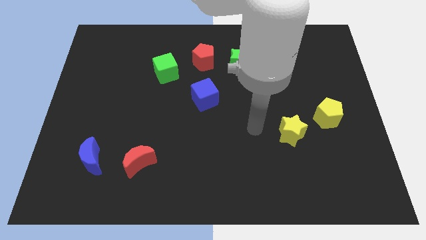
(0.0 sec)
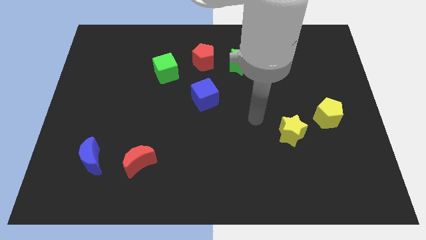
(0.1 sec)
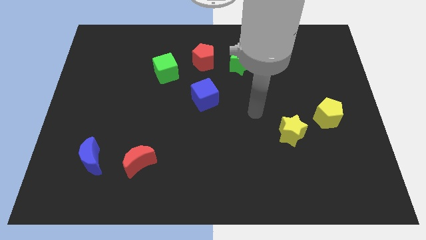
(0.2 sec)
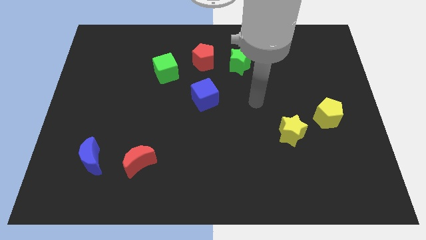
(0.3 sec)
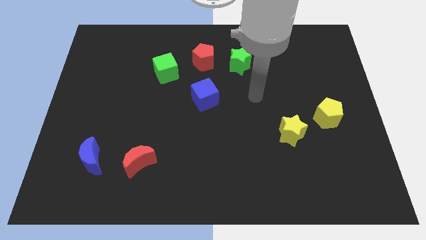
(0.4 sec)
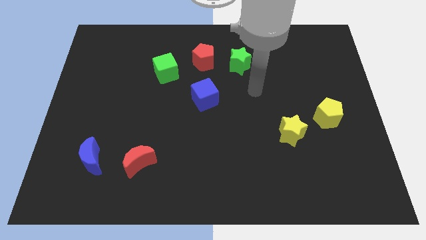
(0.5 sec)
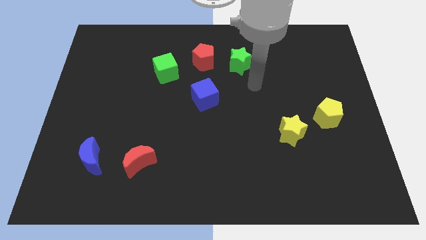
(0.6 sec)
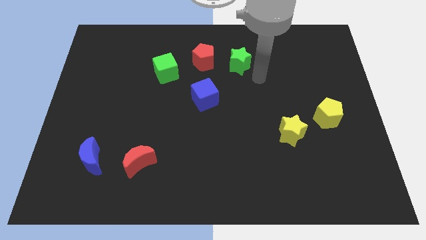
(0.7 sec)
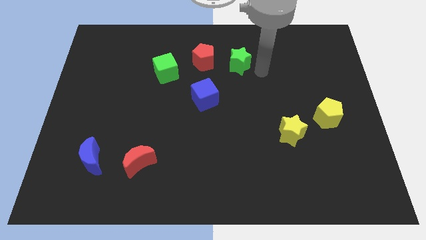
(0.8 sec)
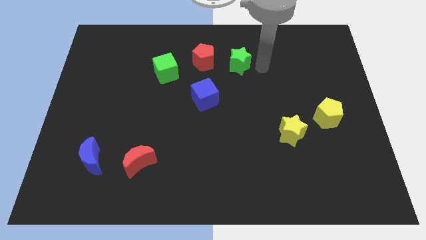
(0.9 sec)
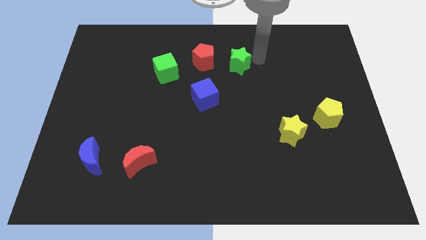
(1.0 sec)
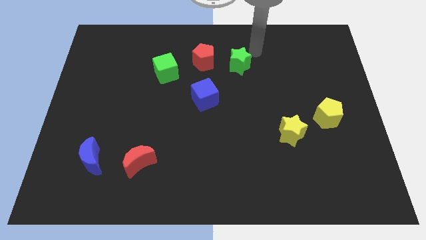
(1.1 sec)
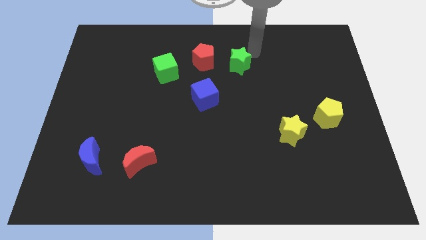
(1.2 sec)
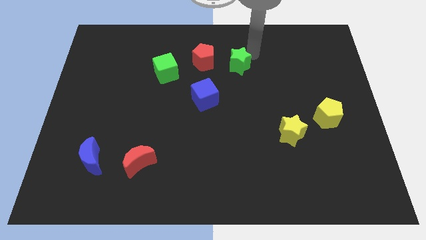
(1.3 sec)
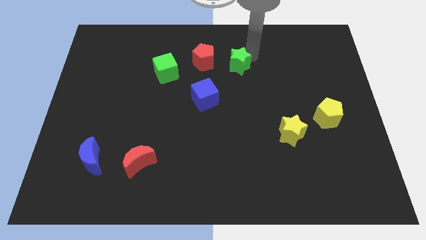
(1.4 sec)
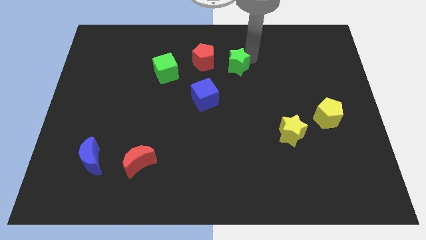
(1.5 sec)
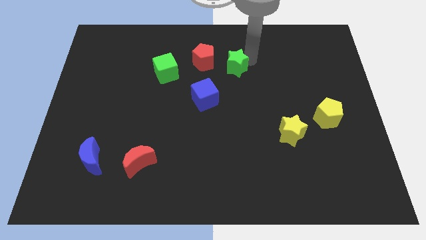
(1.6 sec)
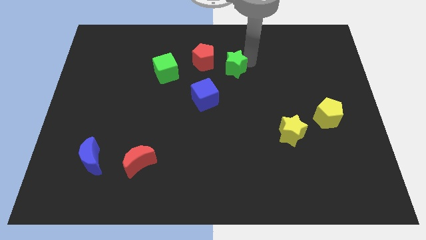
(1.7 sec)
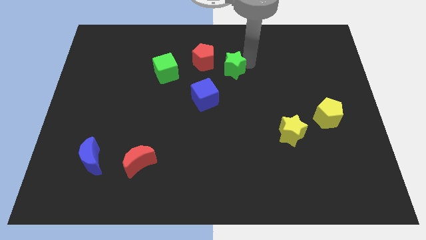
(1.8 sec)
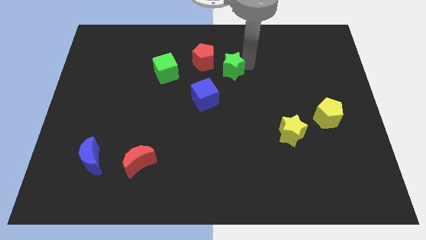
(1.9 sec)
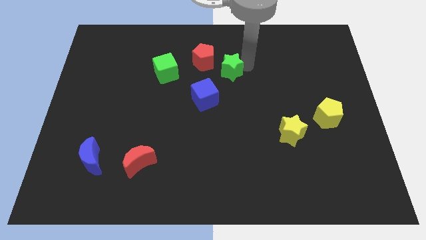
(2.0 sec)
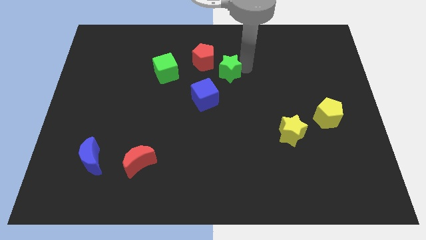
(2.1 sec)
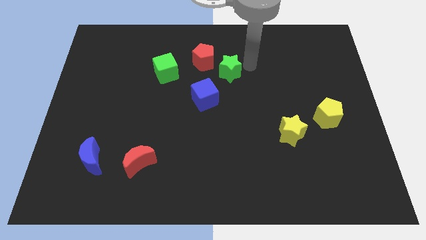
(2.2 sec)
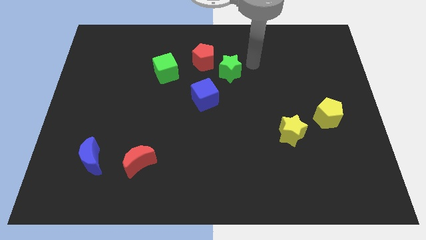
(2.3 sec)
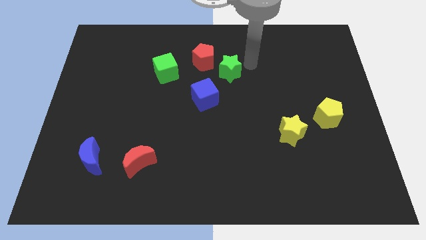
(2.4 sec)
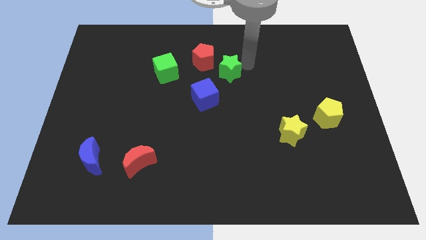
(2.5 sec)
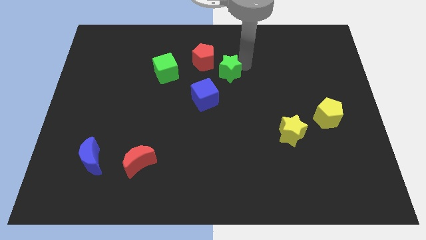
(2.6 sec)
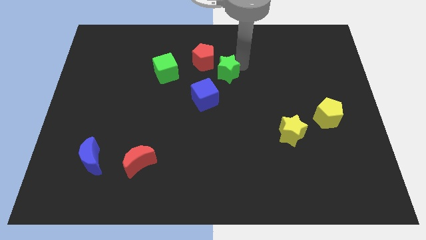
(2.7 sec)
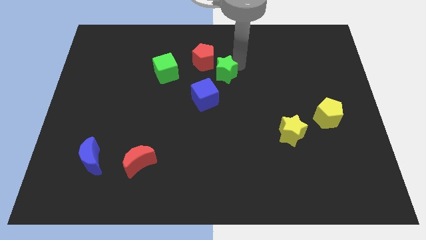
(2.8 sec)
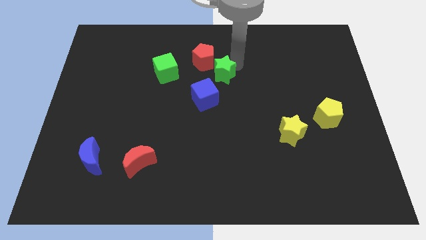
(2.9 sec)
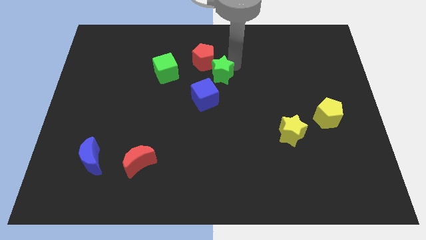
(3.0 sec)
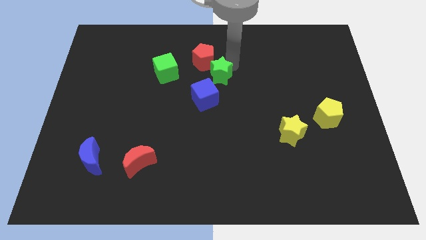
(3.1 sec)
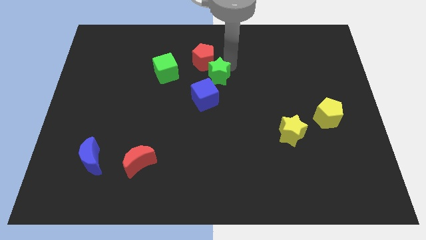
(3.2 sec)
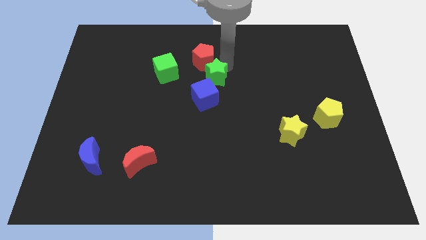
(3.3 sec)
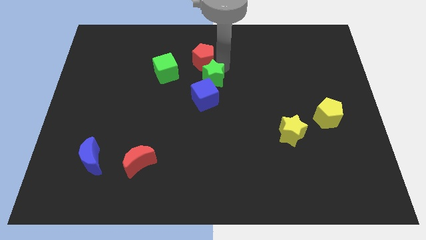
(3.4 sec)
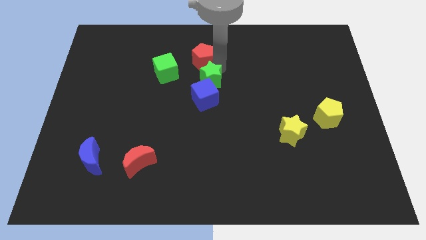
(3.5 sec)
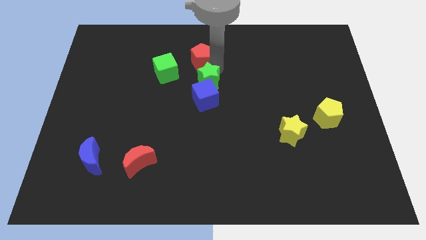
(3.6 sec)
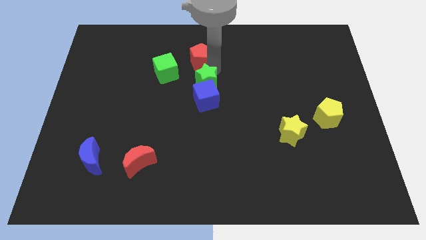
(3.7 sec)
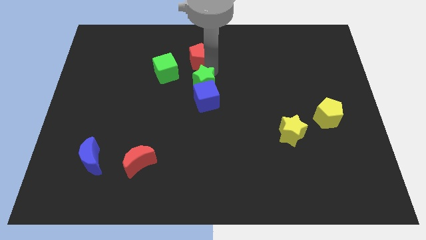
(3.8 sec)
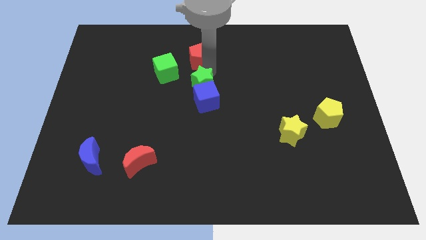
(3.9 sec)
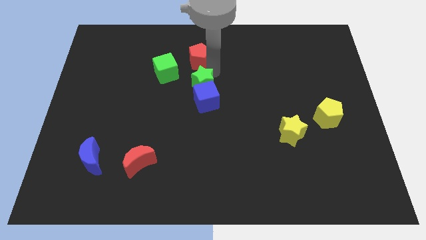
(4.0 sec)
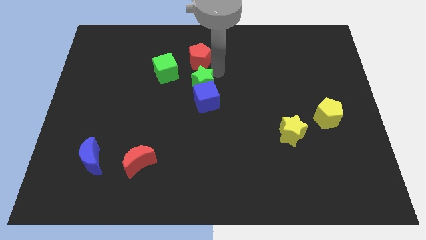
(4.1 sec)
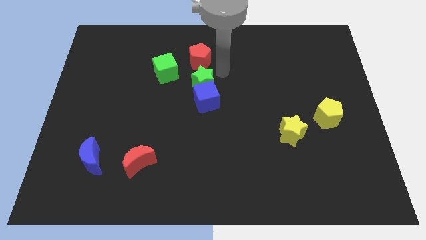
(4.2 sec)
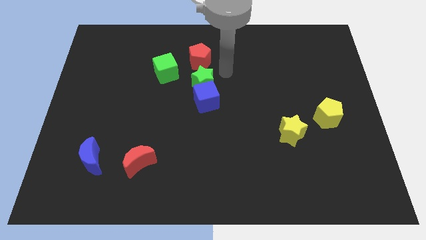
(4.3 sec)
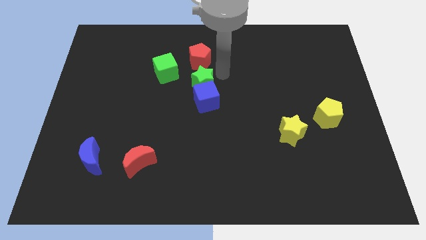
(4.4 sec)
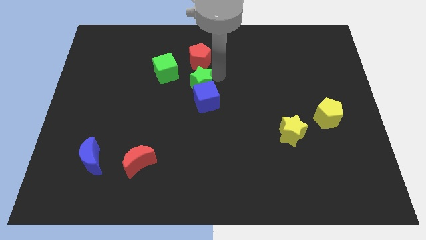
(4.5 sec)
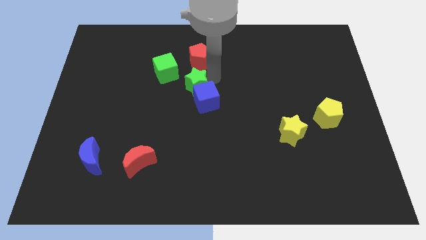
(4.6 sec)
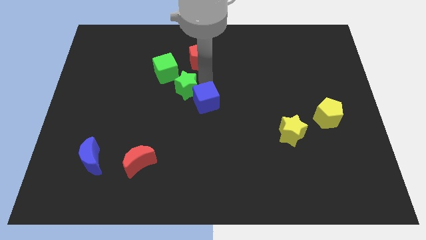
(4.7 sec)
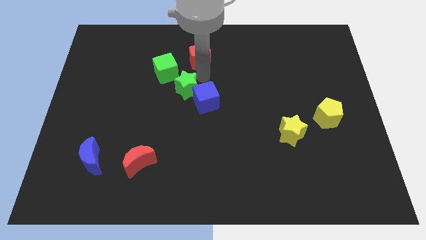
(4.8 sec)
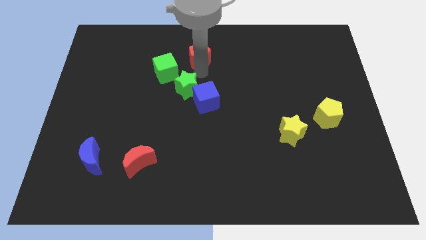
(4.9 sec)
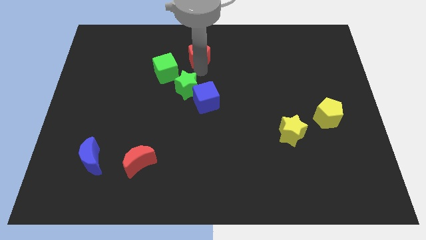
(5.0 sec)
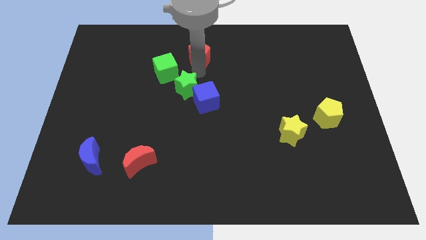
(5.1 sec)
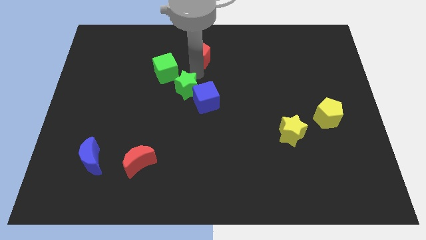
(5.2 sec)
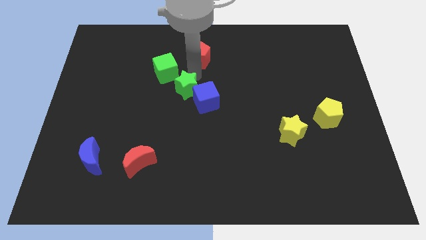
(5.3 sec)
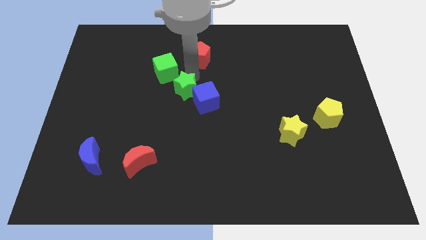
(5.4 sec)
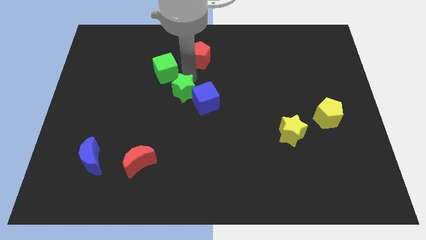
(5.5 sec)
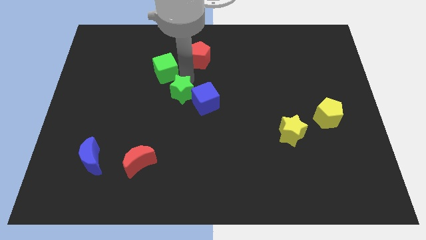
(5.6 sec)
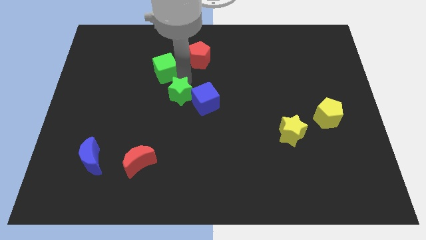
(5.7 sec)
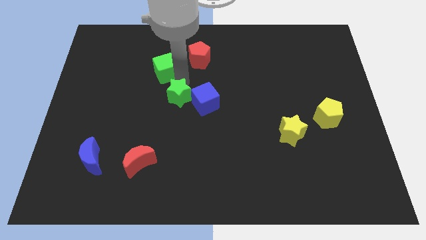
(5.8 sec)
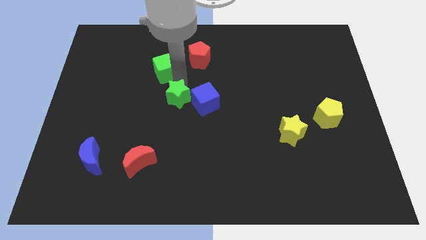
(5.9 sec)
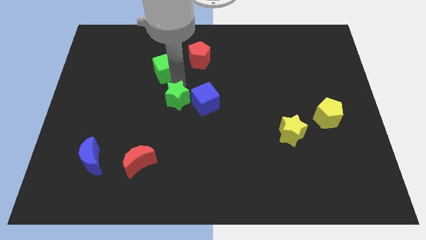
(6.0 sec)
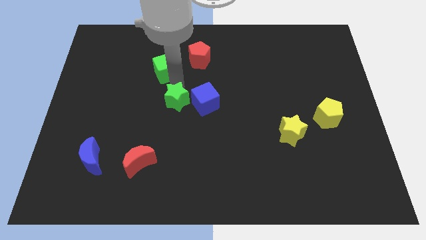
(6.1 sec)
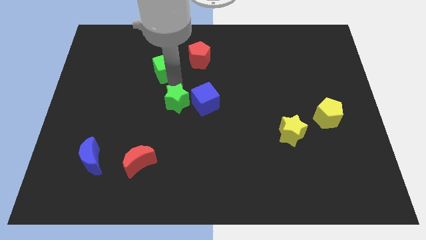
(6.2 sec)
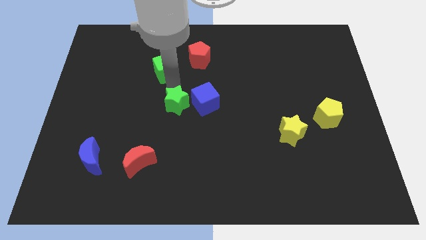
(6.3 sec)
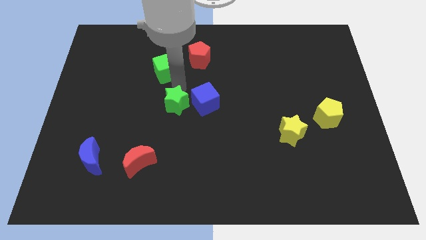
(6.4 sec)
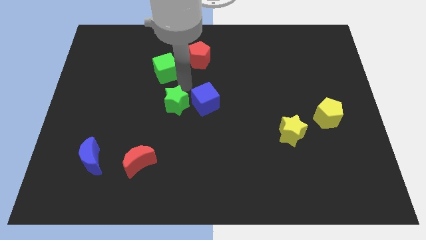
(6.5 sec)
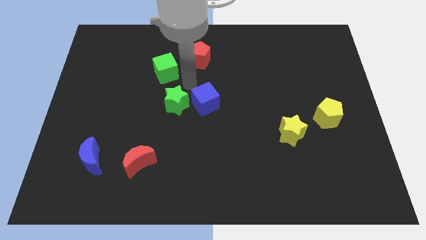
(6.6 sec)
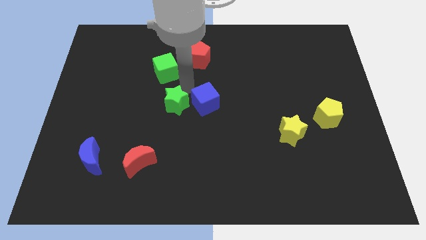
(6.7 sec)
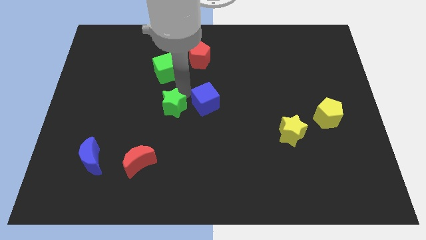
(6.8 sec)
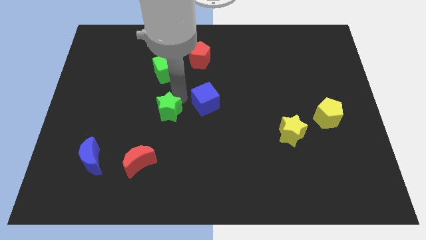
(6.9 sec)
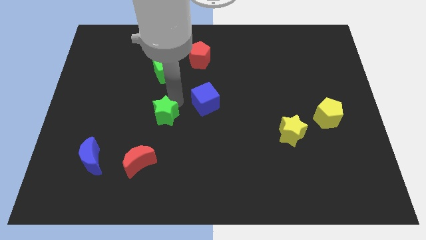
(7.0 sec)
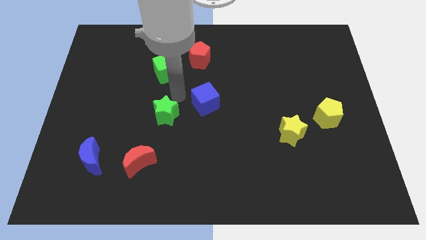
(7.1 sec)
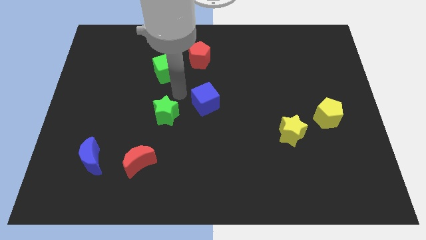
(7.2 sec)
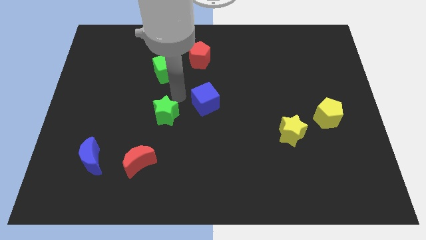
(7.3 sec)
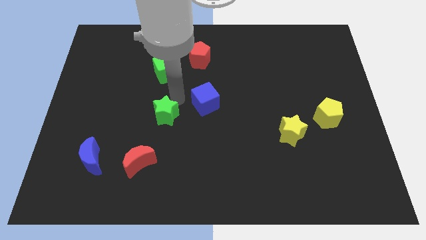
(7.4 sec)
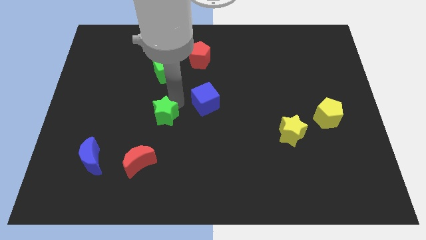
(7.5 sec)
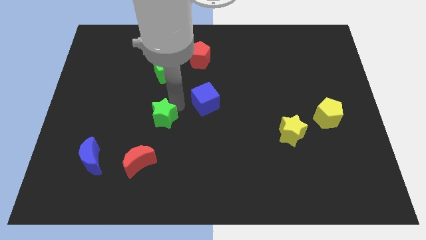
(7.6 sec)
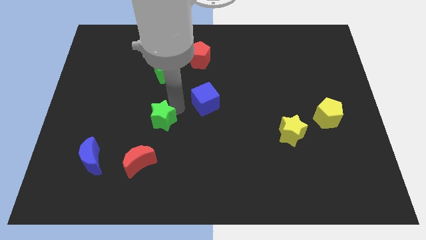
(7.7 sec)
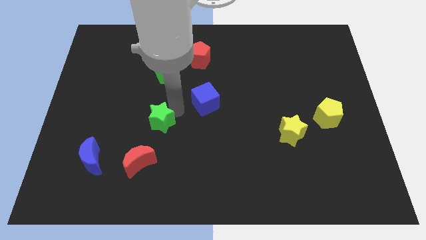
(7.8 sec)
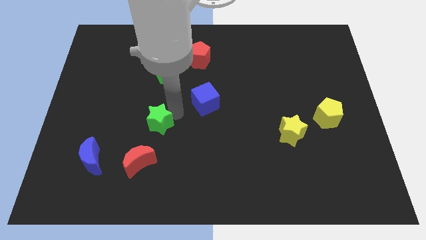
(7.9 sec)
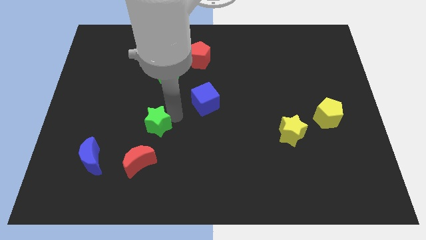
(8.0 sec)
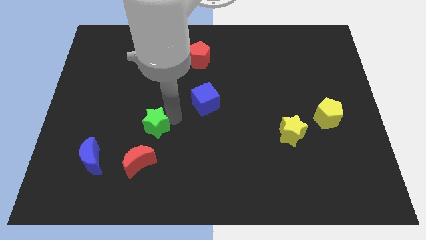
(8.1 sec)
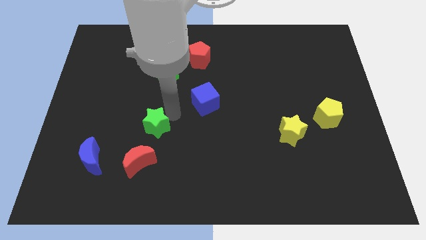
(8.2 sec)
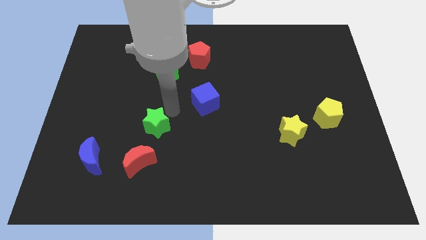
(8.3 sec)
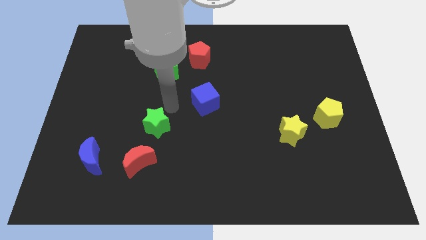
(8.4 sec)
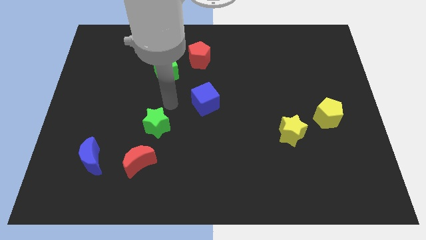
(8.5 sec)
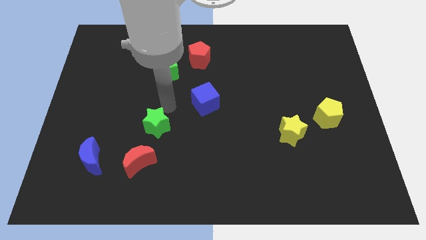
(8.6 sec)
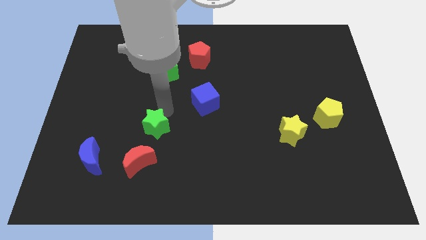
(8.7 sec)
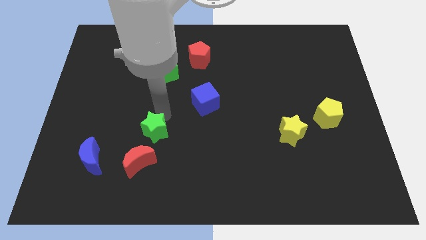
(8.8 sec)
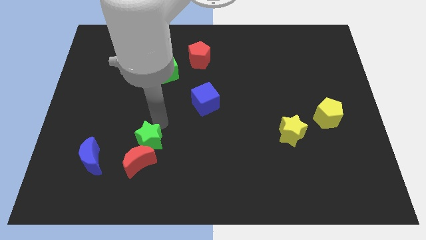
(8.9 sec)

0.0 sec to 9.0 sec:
put the green star towards the red moon
